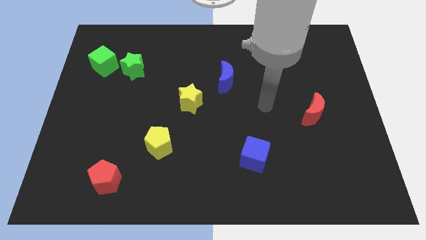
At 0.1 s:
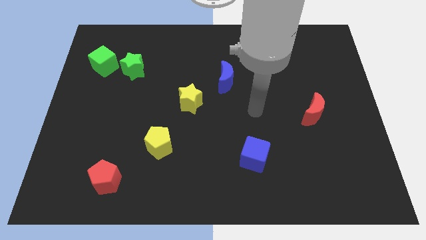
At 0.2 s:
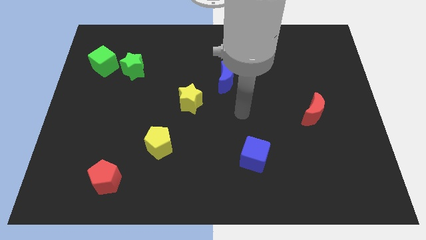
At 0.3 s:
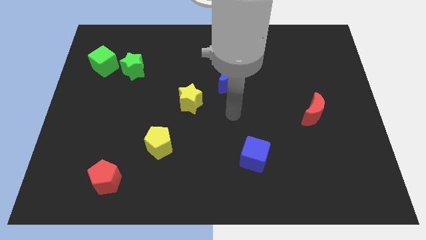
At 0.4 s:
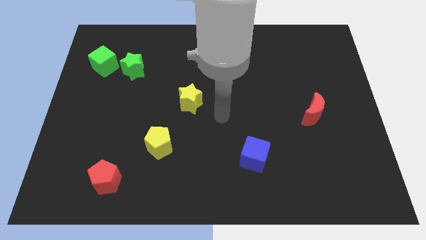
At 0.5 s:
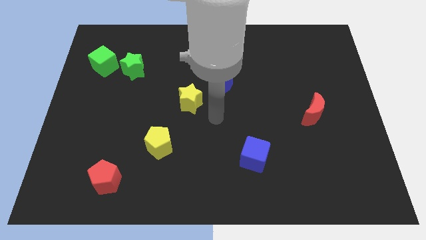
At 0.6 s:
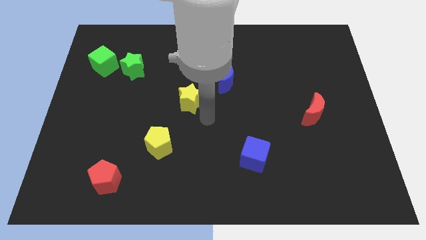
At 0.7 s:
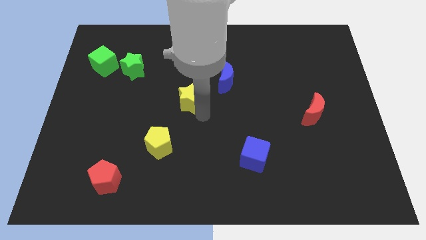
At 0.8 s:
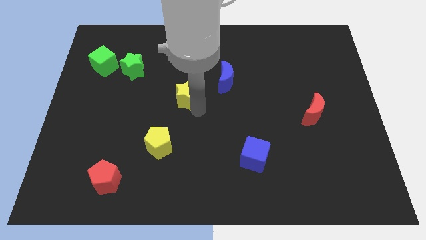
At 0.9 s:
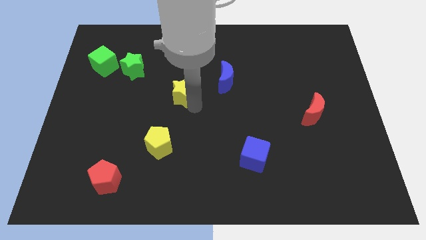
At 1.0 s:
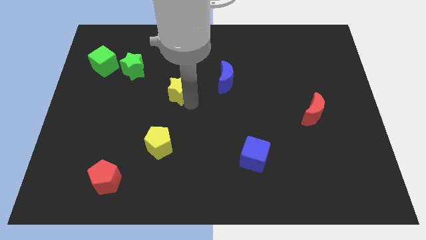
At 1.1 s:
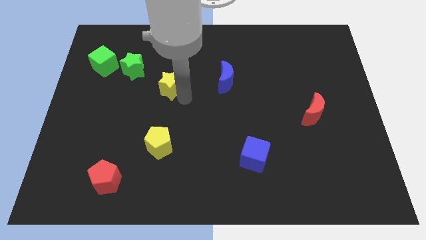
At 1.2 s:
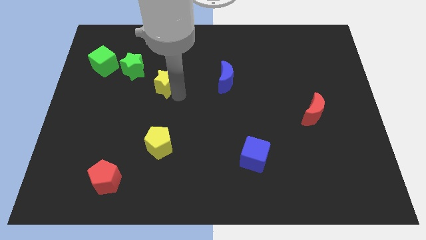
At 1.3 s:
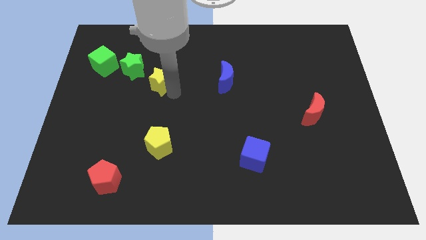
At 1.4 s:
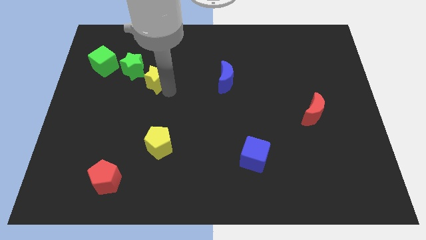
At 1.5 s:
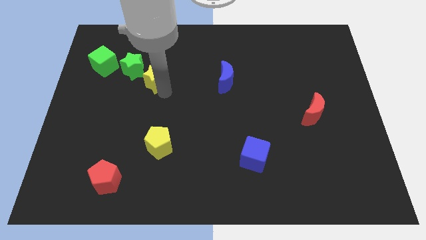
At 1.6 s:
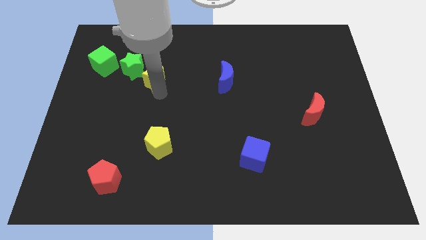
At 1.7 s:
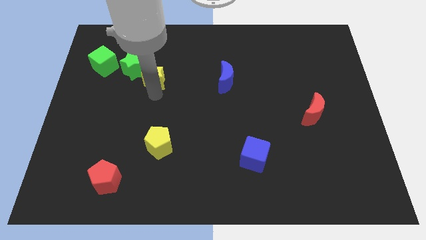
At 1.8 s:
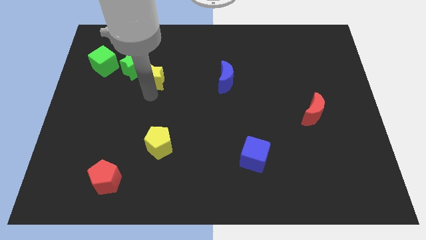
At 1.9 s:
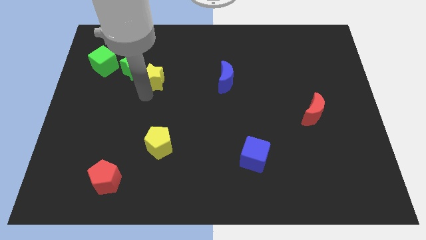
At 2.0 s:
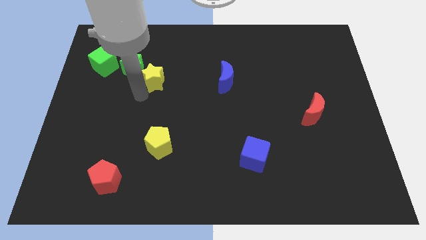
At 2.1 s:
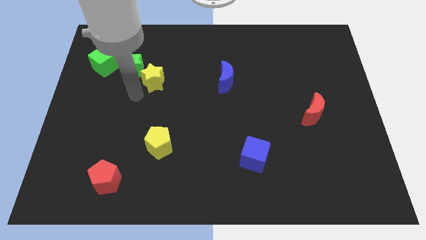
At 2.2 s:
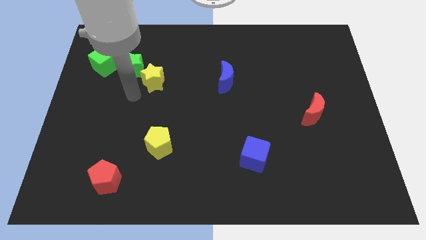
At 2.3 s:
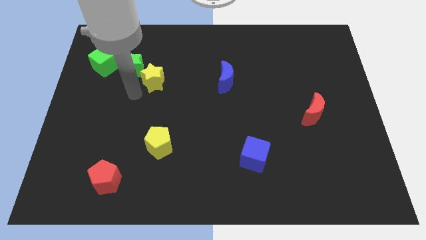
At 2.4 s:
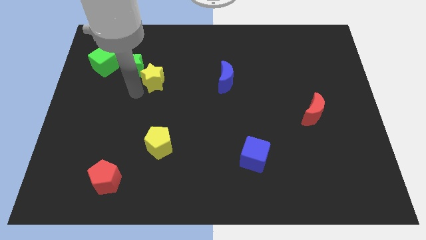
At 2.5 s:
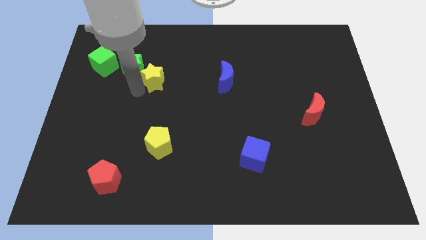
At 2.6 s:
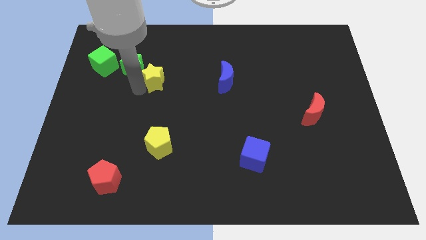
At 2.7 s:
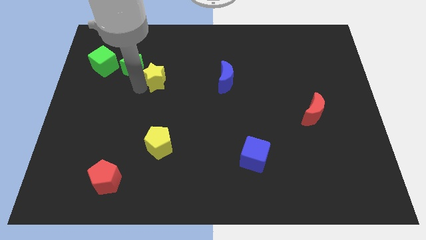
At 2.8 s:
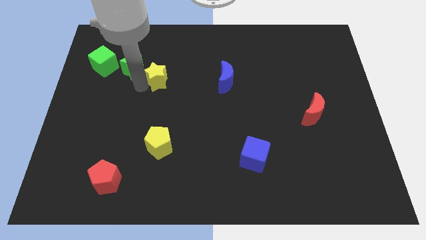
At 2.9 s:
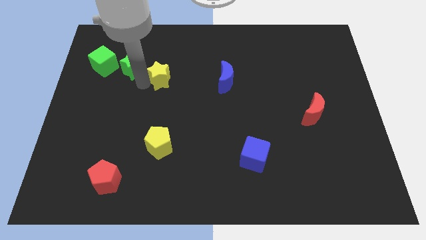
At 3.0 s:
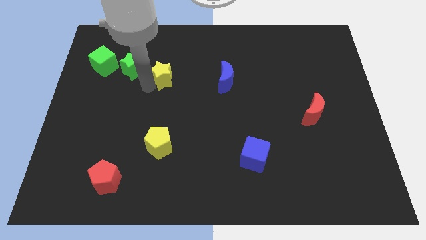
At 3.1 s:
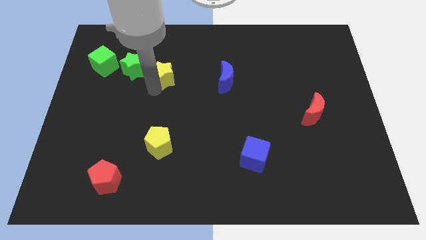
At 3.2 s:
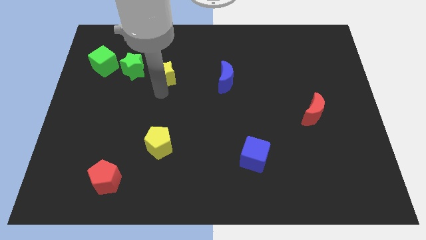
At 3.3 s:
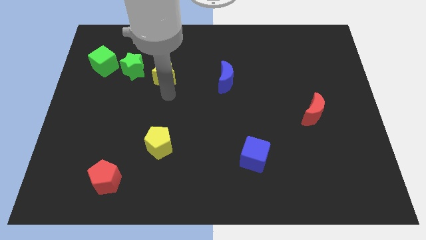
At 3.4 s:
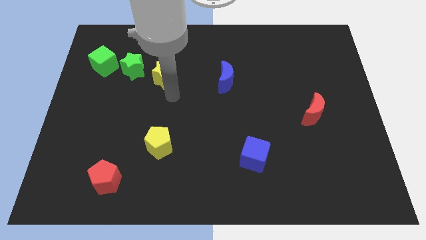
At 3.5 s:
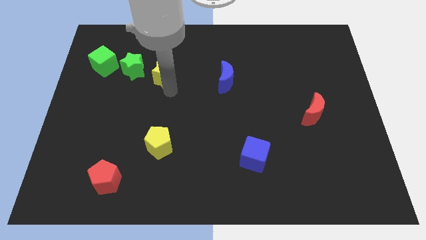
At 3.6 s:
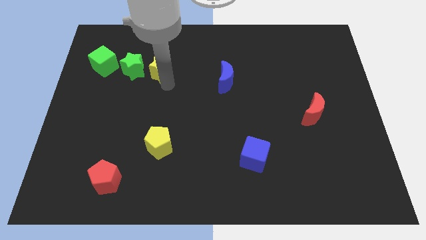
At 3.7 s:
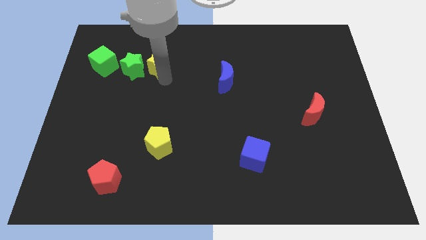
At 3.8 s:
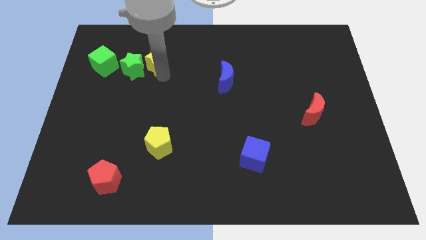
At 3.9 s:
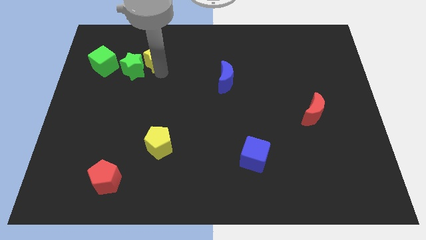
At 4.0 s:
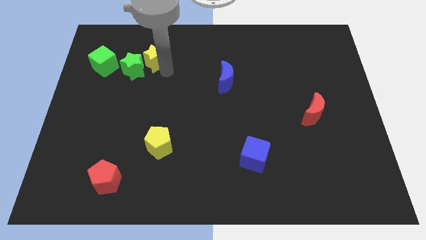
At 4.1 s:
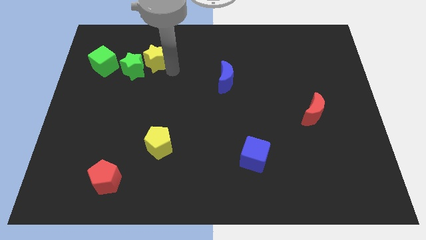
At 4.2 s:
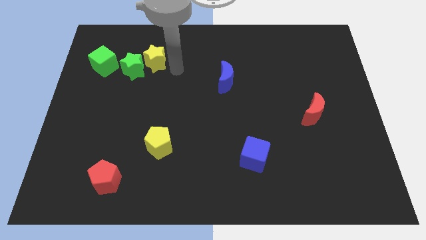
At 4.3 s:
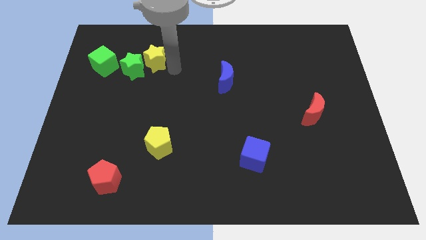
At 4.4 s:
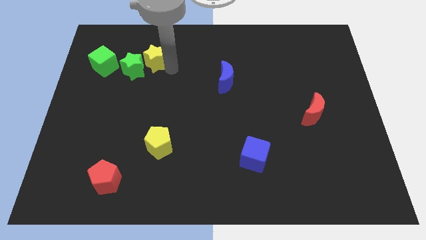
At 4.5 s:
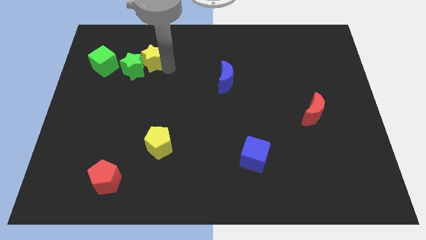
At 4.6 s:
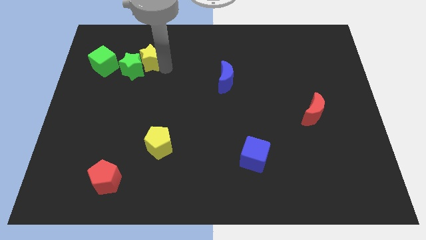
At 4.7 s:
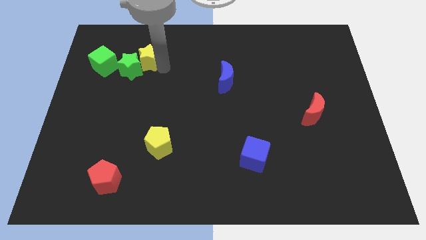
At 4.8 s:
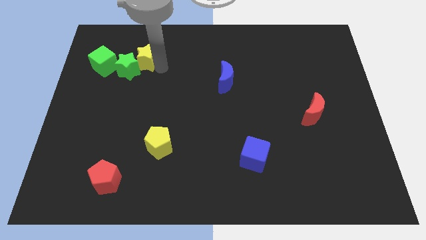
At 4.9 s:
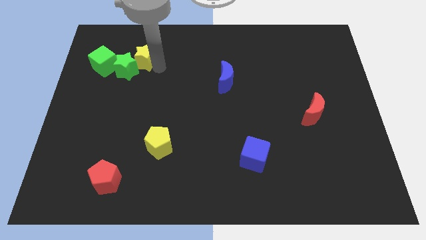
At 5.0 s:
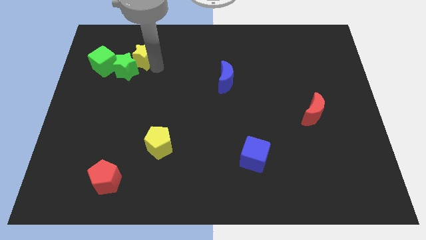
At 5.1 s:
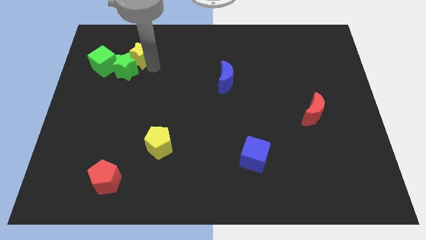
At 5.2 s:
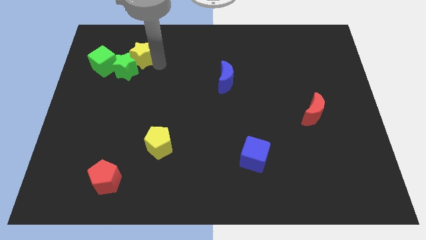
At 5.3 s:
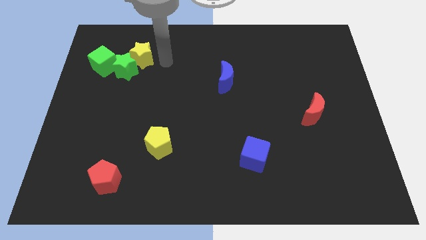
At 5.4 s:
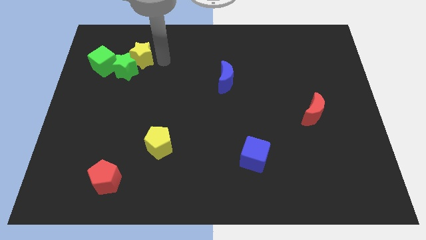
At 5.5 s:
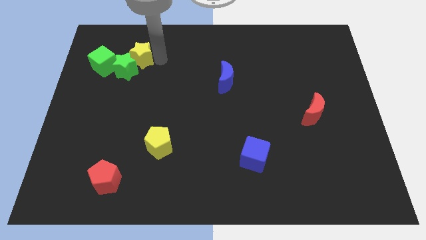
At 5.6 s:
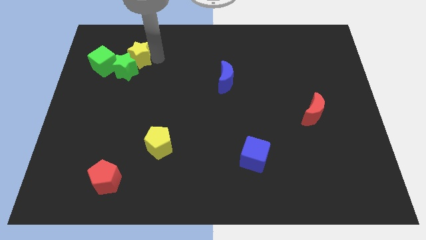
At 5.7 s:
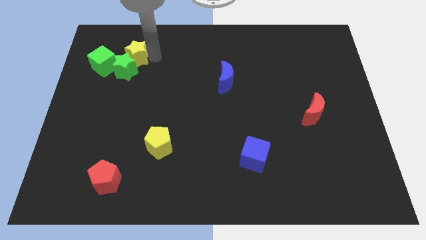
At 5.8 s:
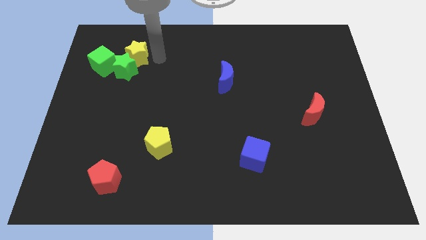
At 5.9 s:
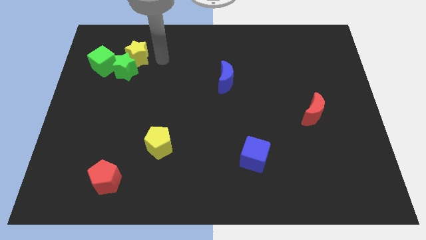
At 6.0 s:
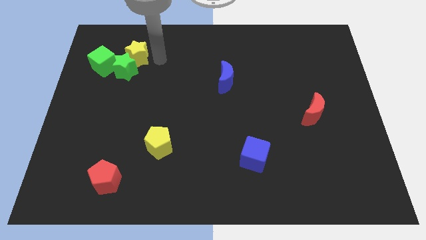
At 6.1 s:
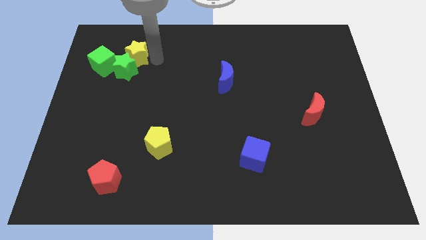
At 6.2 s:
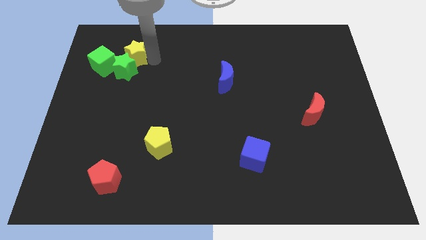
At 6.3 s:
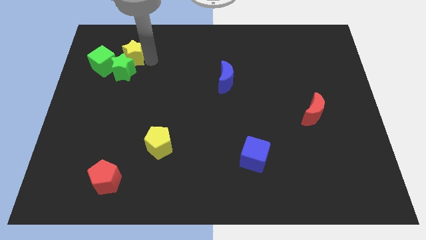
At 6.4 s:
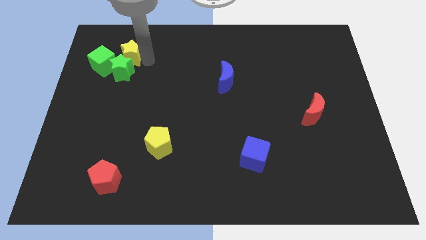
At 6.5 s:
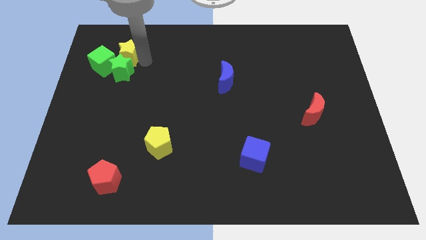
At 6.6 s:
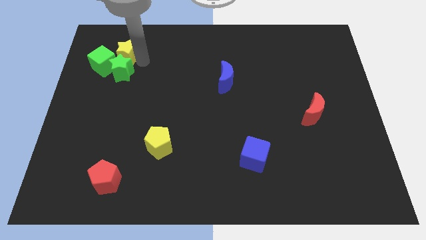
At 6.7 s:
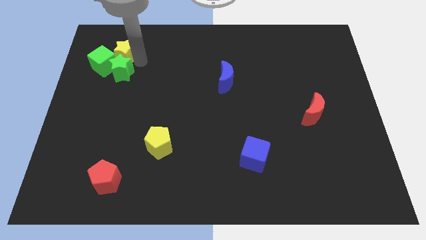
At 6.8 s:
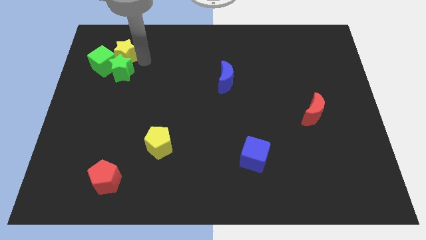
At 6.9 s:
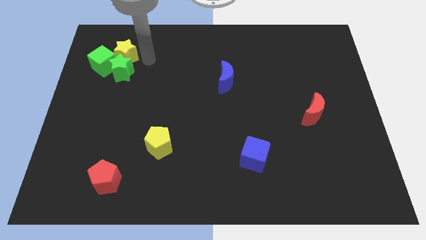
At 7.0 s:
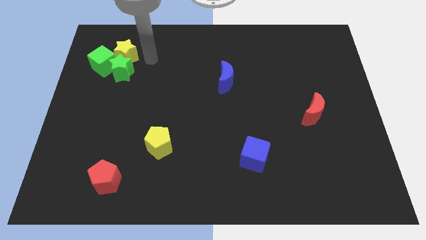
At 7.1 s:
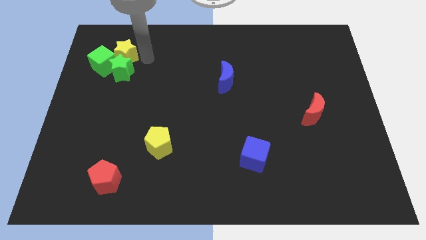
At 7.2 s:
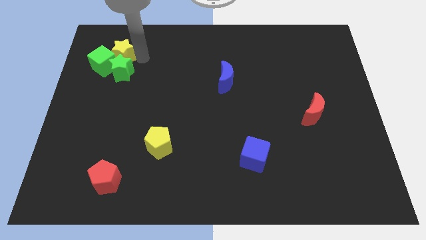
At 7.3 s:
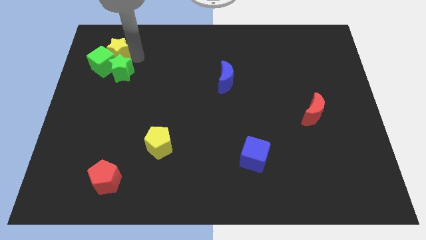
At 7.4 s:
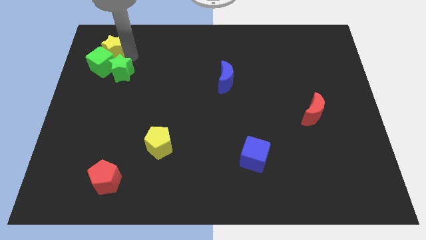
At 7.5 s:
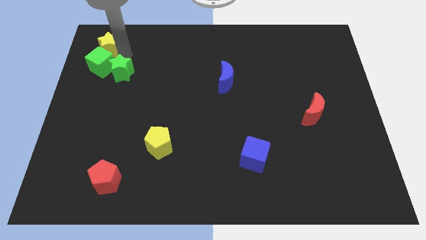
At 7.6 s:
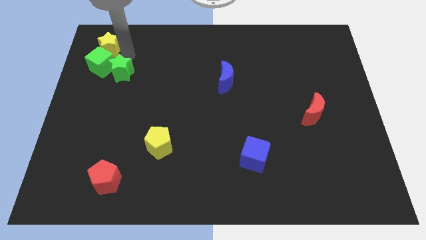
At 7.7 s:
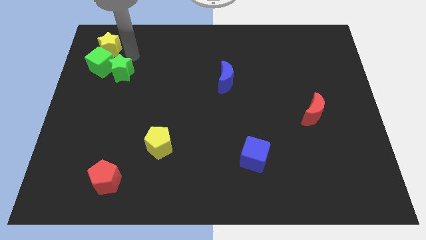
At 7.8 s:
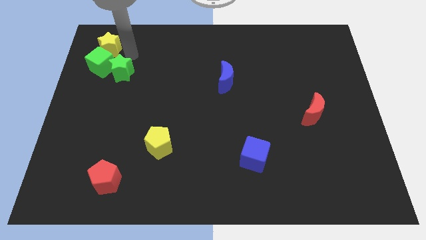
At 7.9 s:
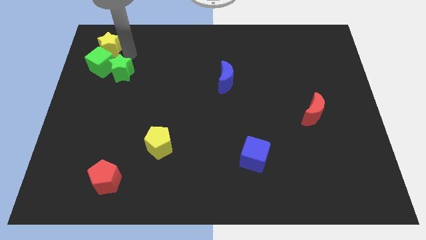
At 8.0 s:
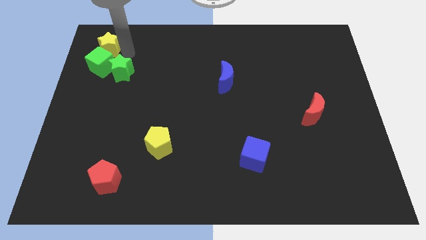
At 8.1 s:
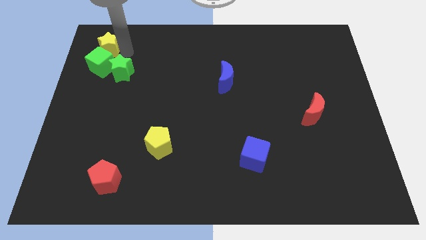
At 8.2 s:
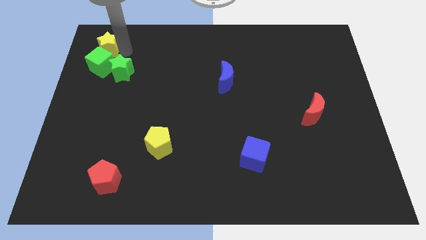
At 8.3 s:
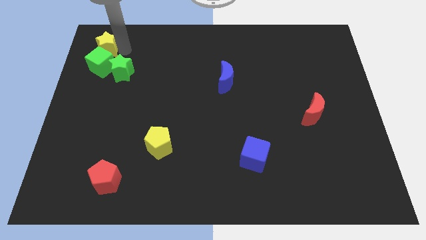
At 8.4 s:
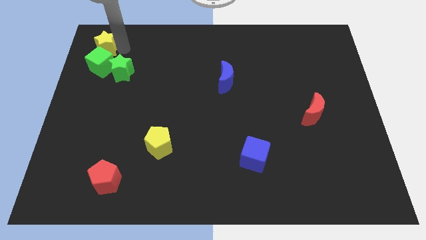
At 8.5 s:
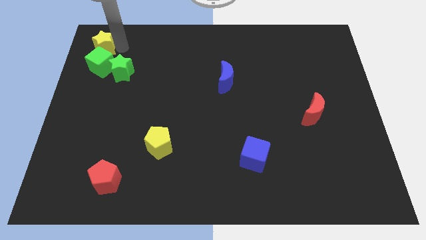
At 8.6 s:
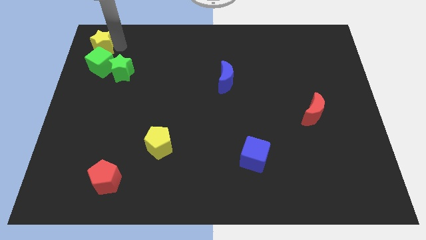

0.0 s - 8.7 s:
slide the yellow star to the upper left corner
